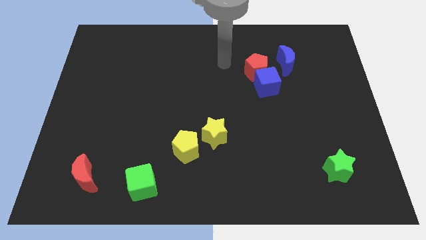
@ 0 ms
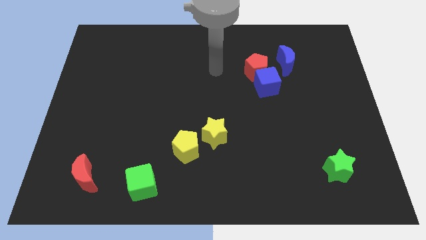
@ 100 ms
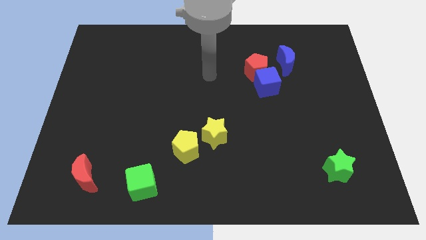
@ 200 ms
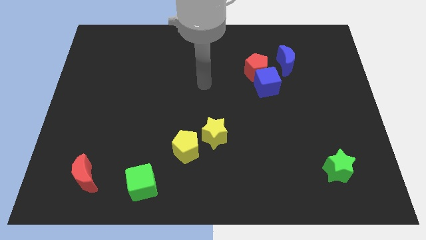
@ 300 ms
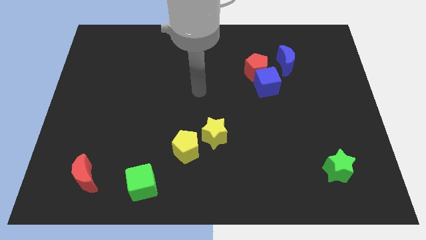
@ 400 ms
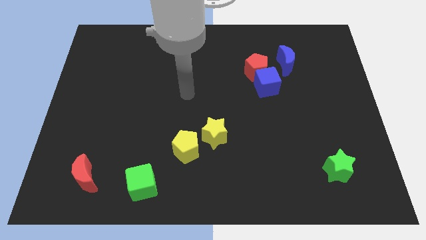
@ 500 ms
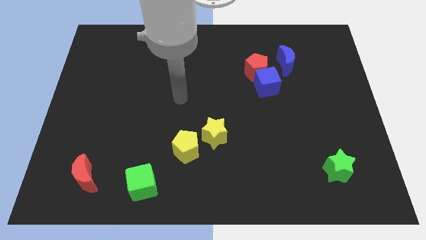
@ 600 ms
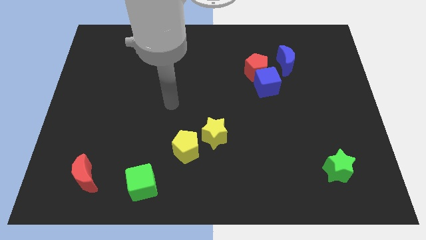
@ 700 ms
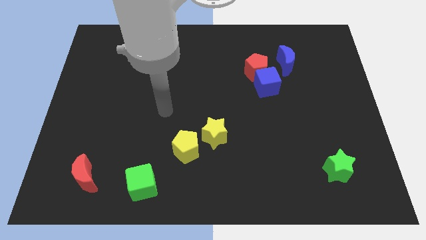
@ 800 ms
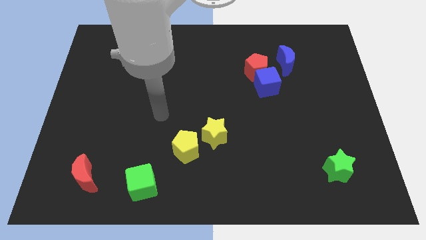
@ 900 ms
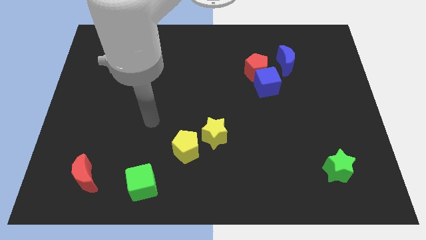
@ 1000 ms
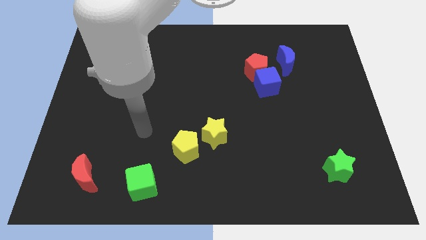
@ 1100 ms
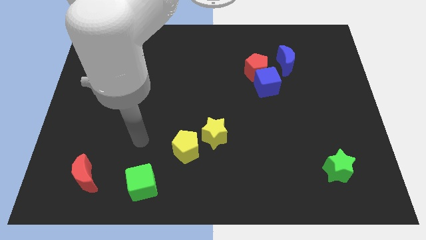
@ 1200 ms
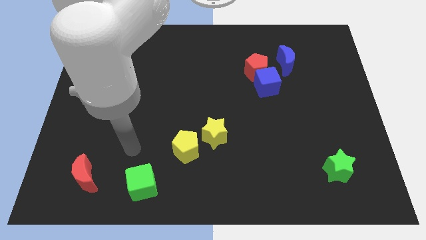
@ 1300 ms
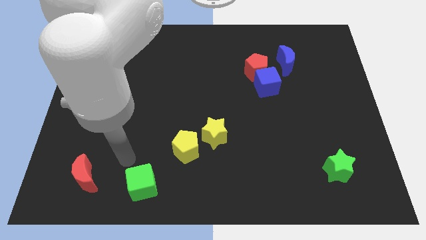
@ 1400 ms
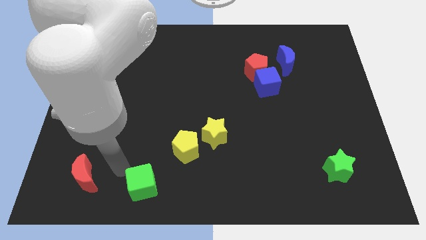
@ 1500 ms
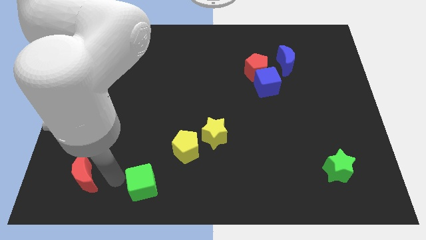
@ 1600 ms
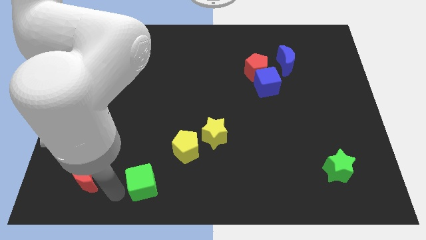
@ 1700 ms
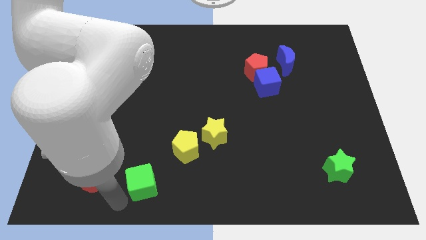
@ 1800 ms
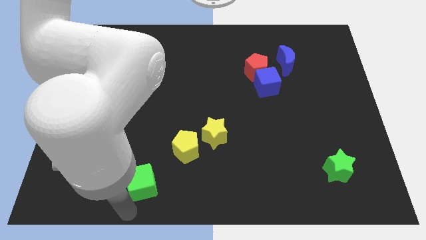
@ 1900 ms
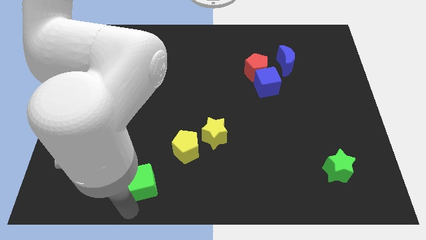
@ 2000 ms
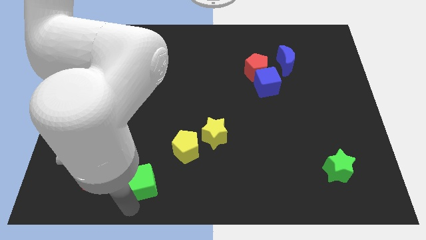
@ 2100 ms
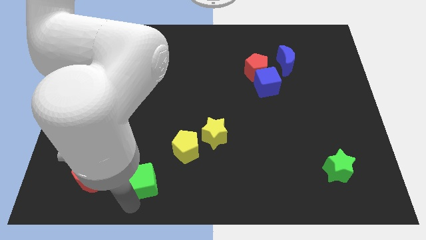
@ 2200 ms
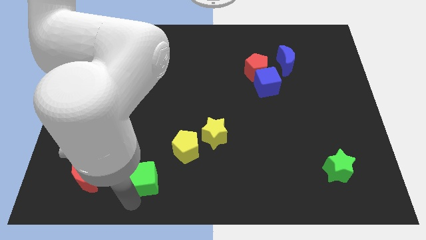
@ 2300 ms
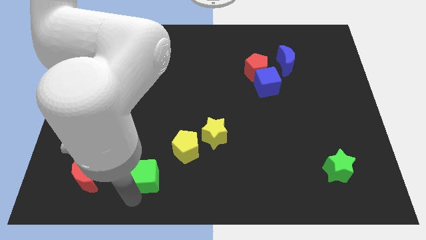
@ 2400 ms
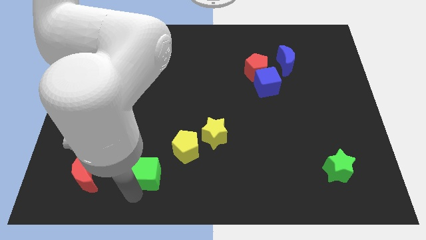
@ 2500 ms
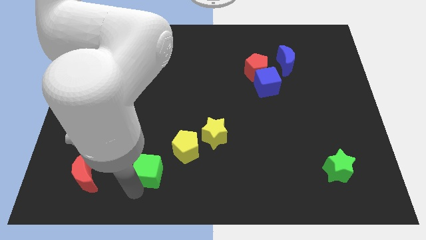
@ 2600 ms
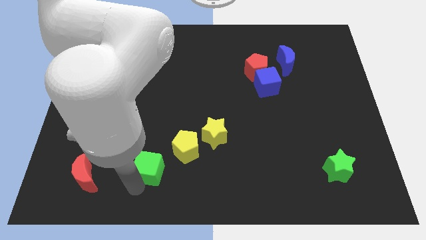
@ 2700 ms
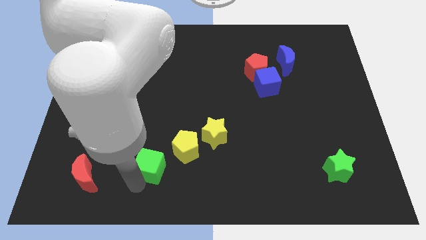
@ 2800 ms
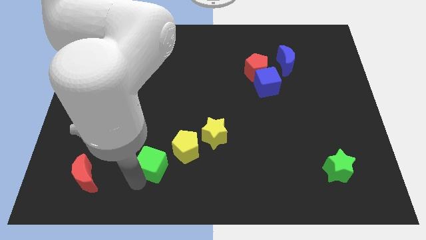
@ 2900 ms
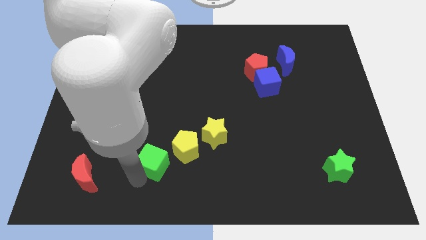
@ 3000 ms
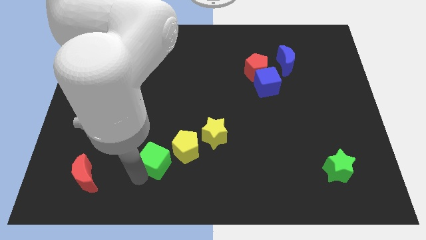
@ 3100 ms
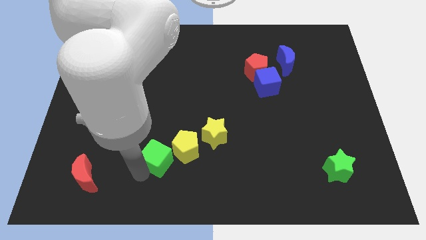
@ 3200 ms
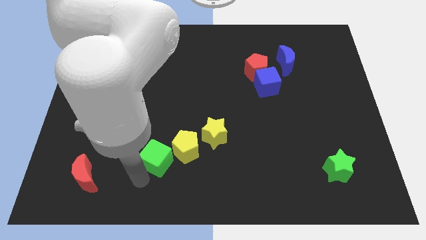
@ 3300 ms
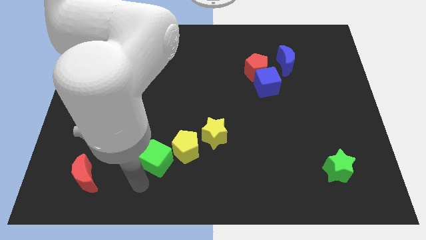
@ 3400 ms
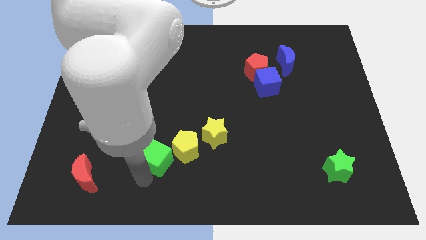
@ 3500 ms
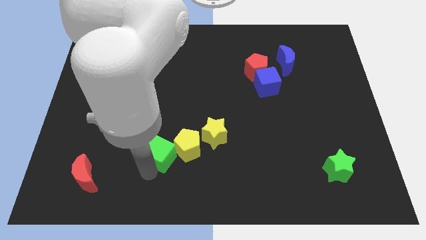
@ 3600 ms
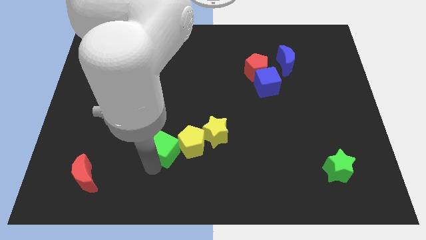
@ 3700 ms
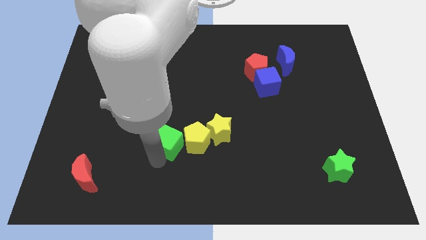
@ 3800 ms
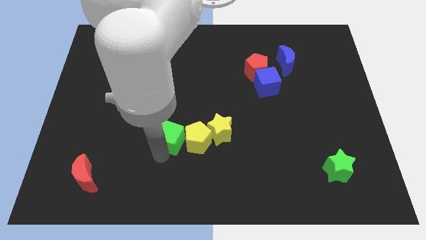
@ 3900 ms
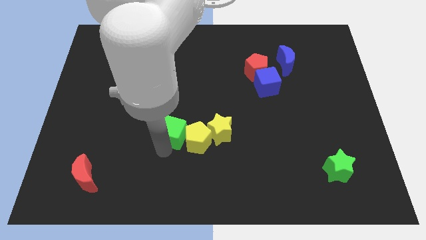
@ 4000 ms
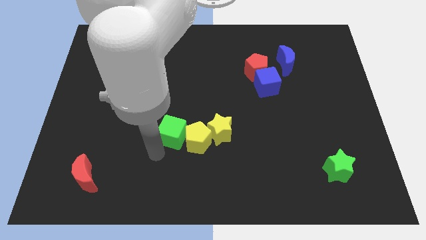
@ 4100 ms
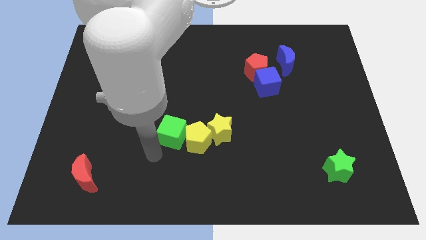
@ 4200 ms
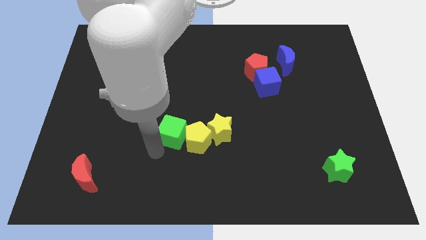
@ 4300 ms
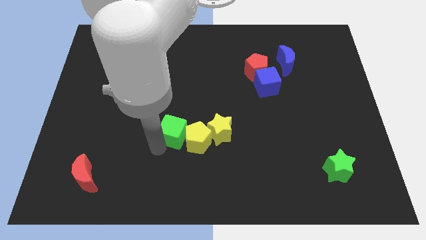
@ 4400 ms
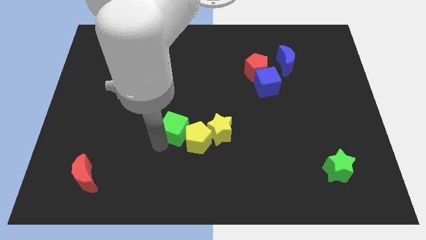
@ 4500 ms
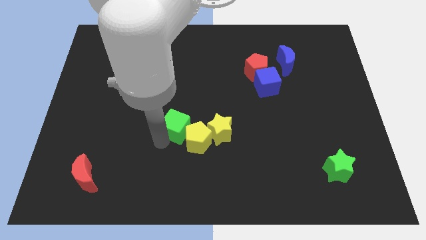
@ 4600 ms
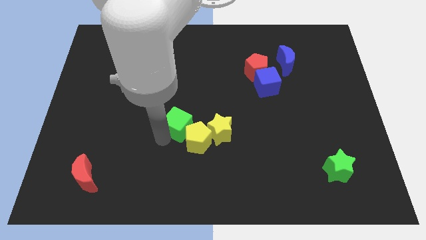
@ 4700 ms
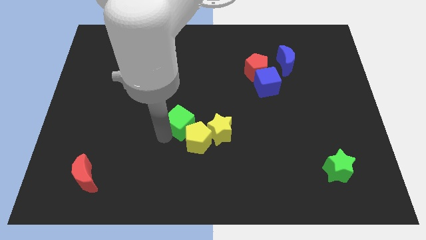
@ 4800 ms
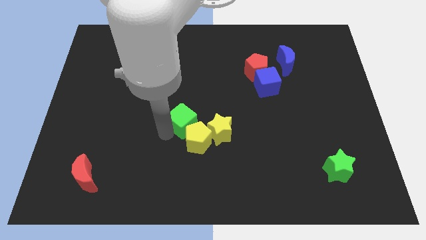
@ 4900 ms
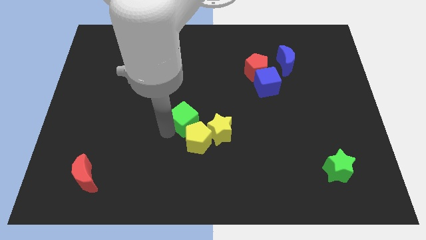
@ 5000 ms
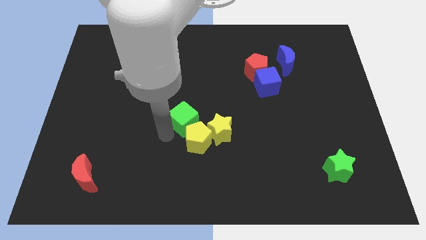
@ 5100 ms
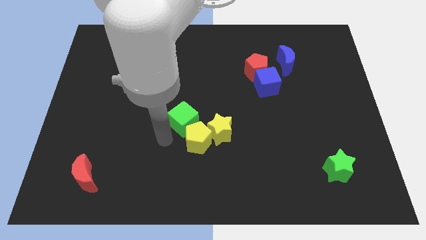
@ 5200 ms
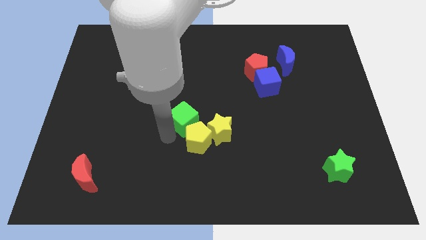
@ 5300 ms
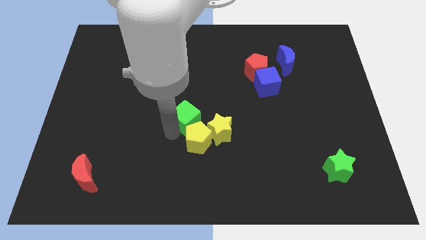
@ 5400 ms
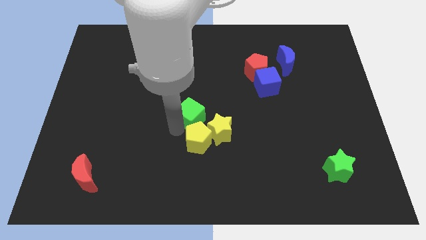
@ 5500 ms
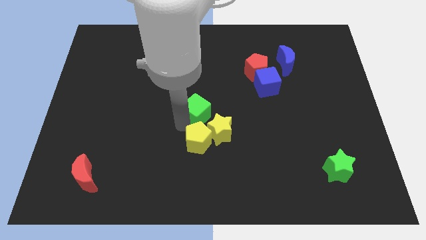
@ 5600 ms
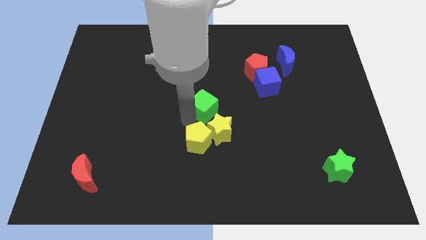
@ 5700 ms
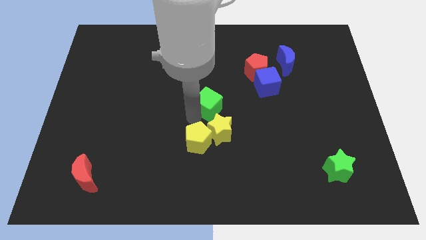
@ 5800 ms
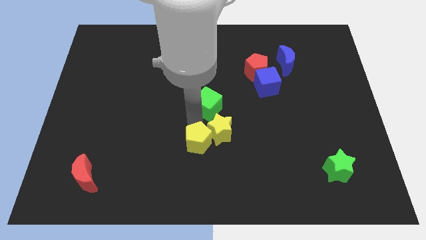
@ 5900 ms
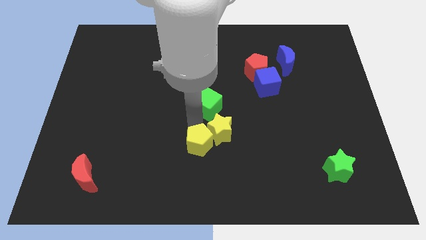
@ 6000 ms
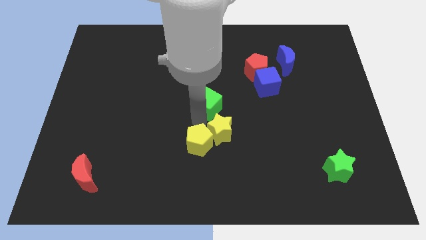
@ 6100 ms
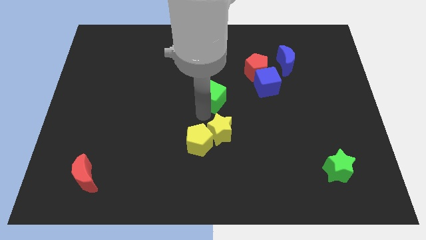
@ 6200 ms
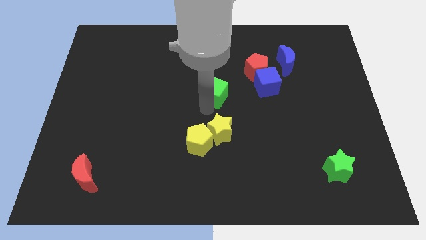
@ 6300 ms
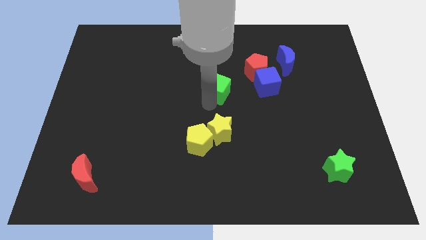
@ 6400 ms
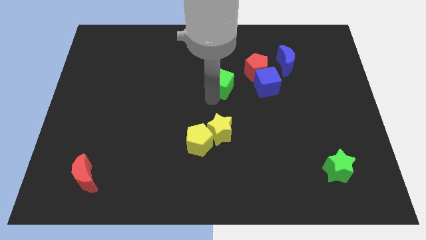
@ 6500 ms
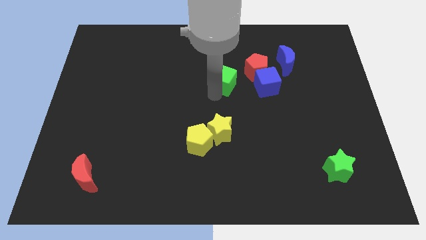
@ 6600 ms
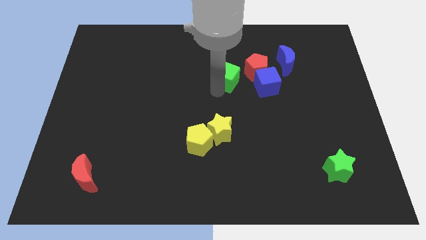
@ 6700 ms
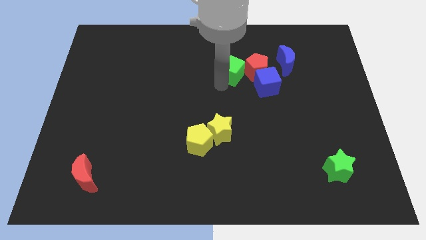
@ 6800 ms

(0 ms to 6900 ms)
put the green cube just left of the blue moon

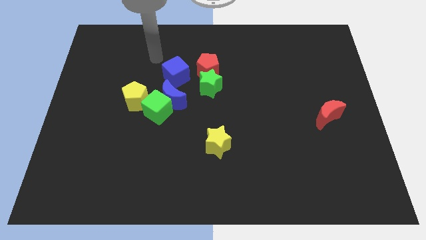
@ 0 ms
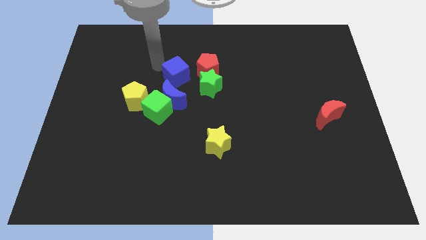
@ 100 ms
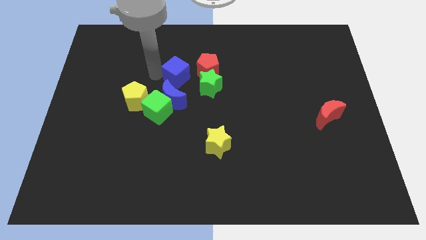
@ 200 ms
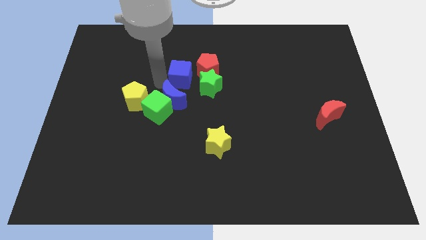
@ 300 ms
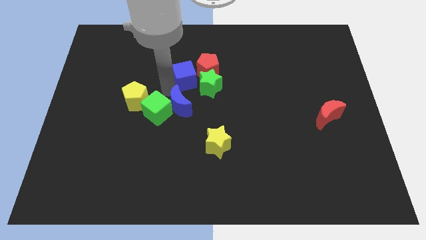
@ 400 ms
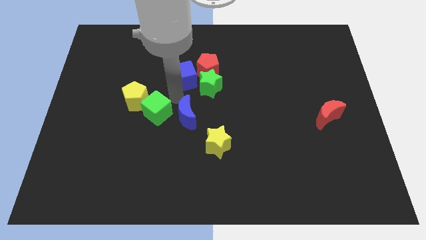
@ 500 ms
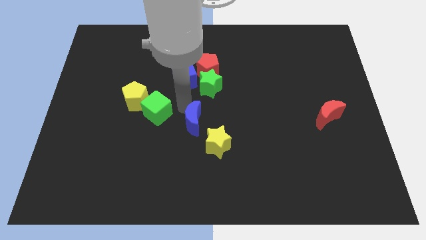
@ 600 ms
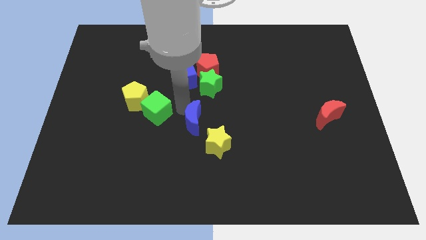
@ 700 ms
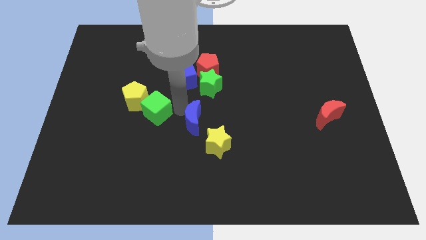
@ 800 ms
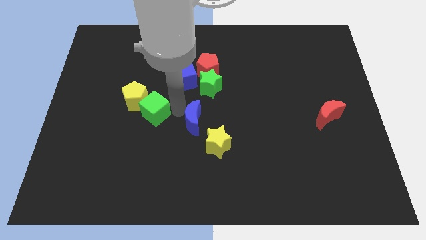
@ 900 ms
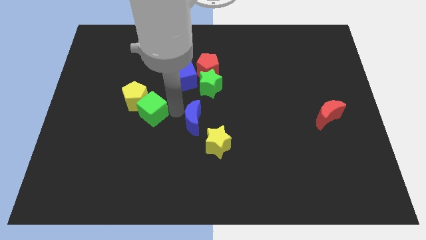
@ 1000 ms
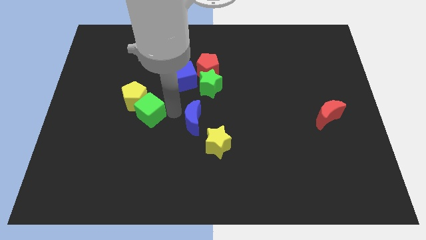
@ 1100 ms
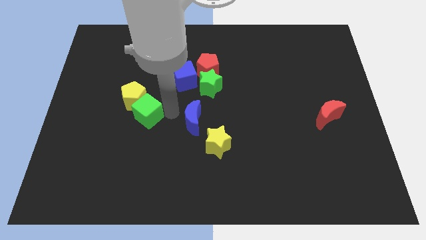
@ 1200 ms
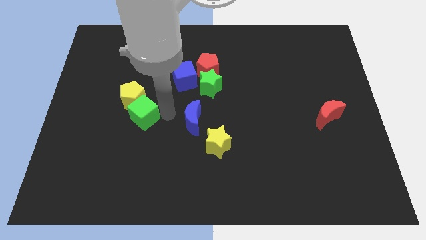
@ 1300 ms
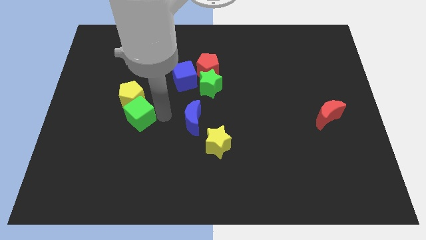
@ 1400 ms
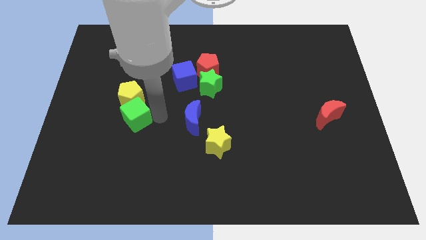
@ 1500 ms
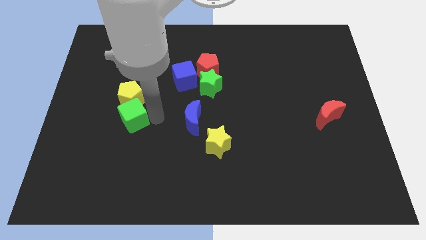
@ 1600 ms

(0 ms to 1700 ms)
slide the green cube diagonally down and to the left of the yellow pentagon
